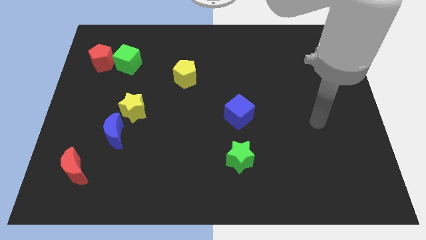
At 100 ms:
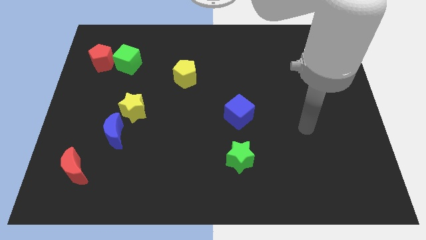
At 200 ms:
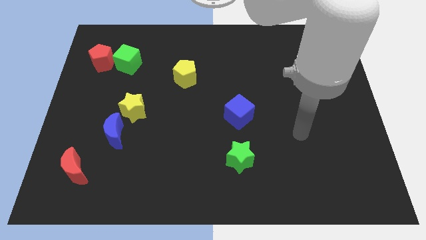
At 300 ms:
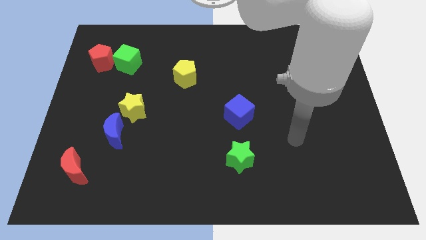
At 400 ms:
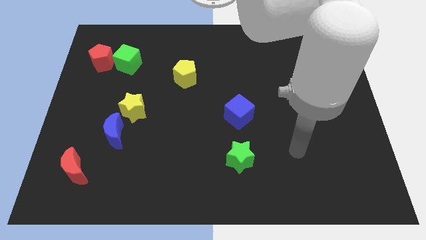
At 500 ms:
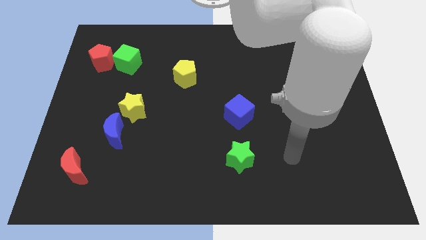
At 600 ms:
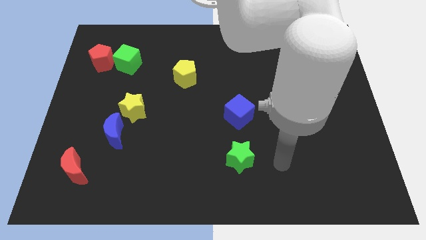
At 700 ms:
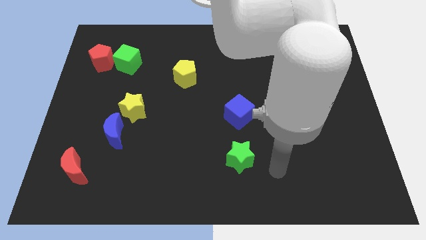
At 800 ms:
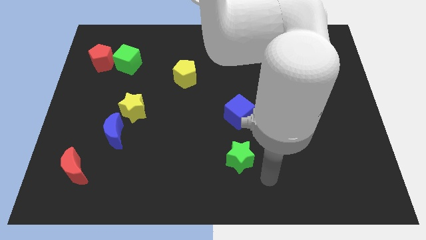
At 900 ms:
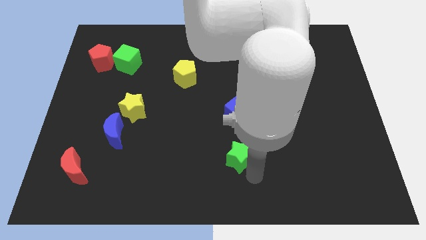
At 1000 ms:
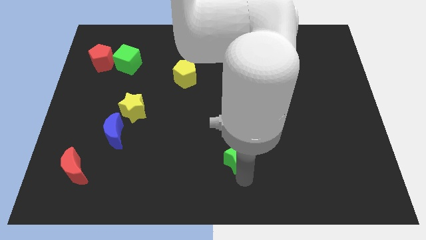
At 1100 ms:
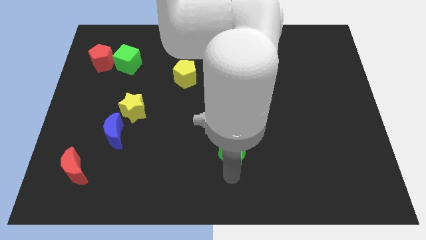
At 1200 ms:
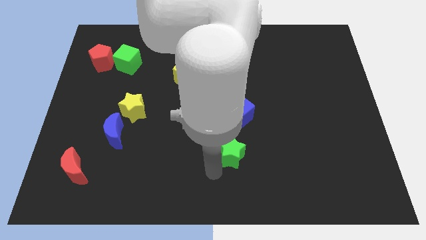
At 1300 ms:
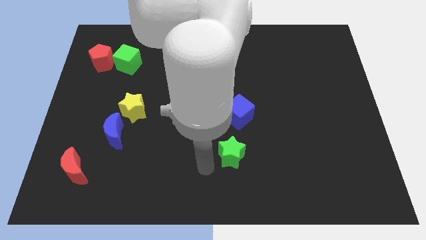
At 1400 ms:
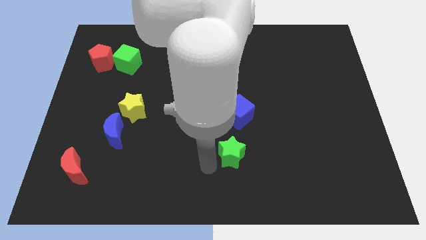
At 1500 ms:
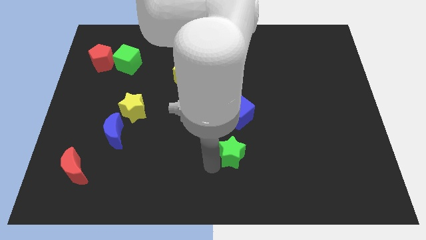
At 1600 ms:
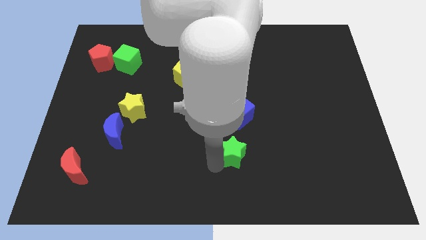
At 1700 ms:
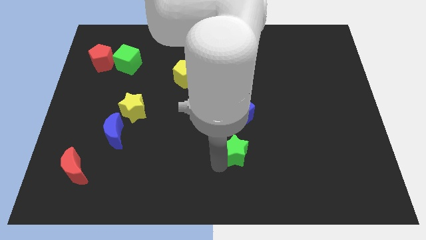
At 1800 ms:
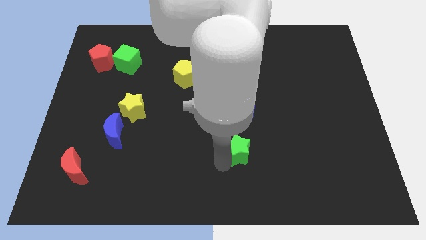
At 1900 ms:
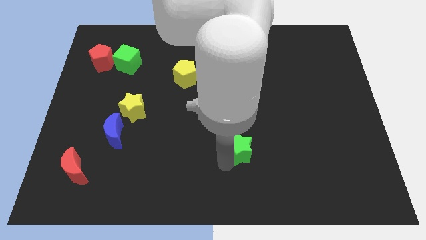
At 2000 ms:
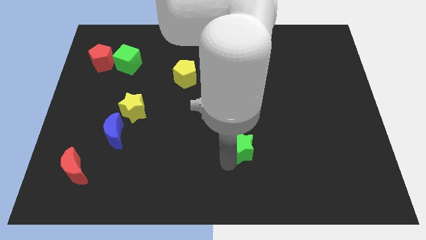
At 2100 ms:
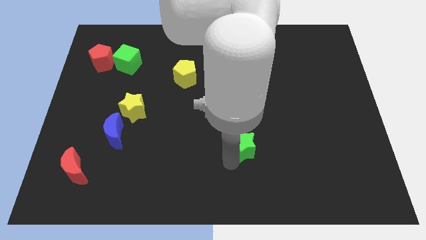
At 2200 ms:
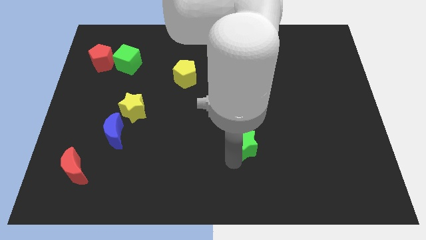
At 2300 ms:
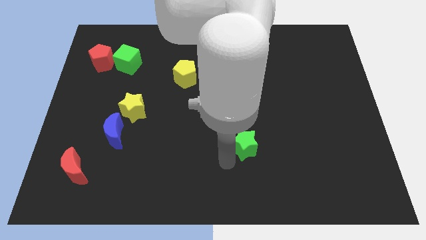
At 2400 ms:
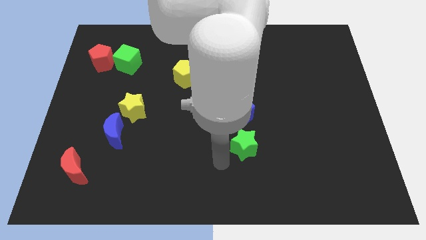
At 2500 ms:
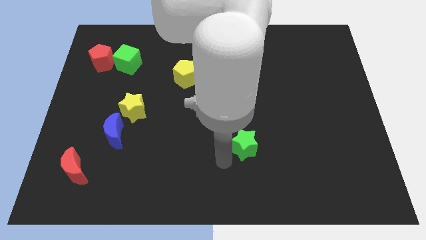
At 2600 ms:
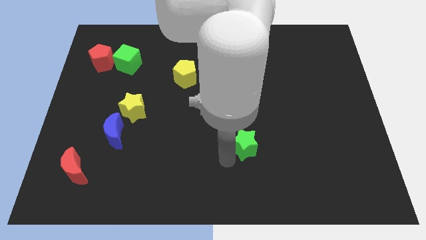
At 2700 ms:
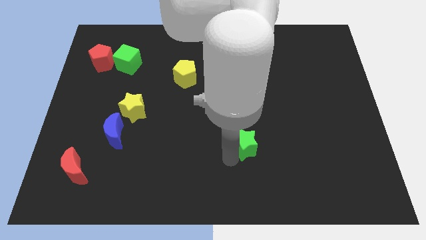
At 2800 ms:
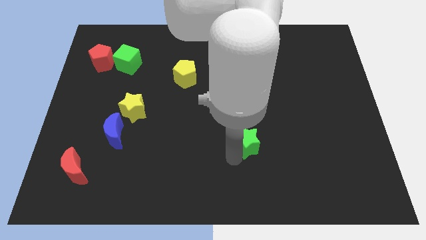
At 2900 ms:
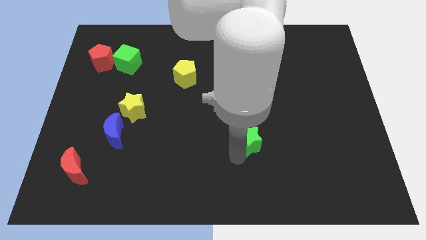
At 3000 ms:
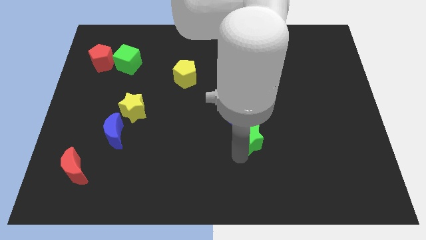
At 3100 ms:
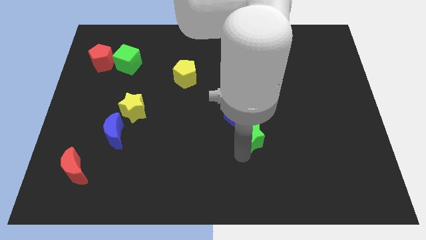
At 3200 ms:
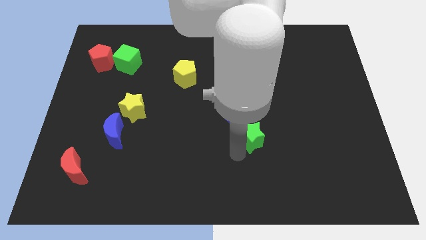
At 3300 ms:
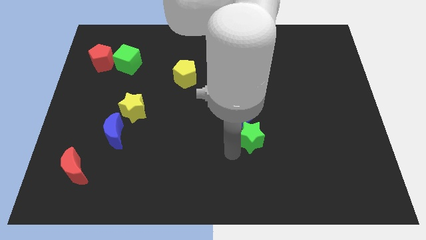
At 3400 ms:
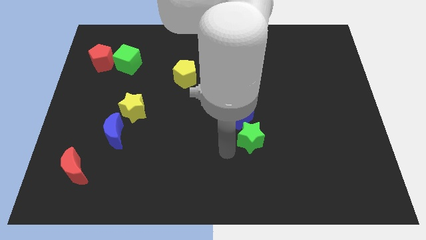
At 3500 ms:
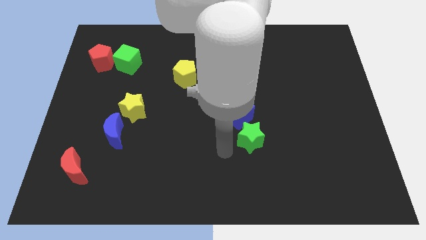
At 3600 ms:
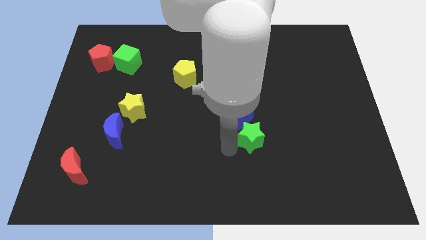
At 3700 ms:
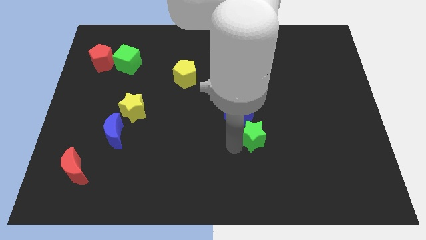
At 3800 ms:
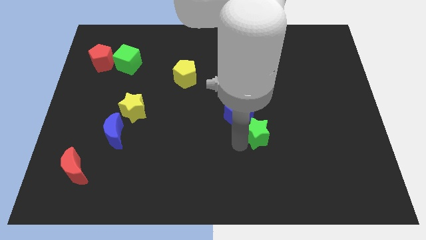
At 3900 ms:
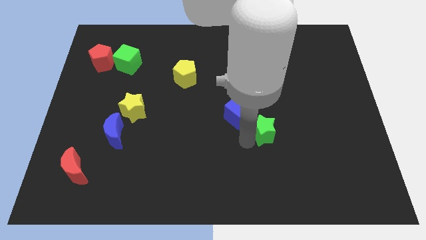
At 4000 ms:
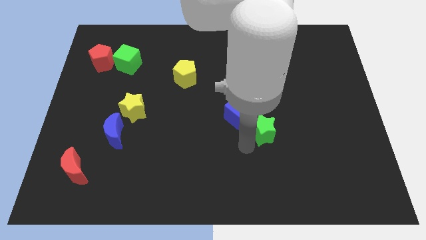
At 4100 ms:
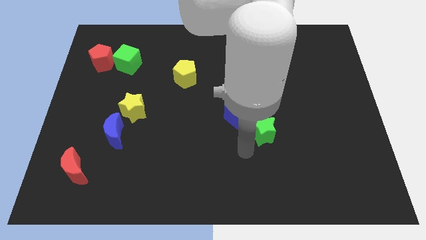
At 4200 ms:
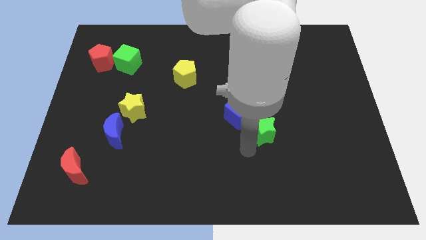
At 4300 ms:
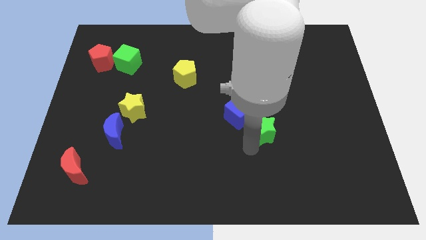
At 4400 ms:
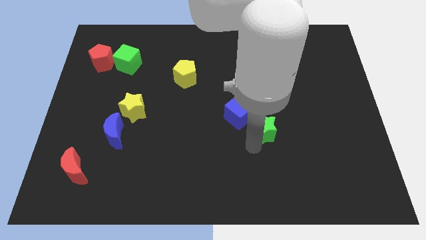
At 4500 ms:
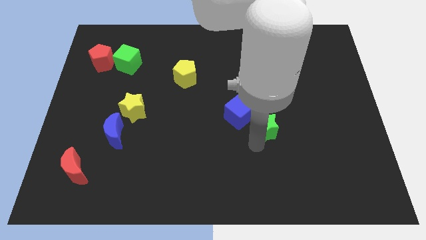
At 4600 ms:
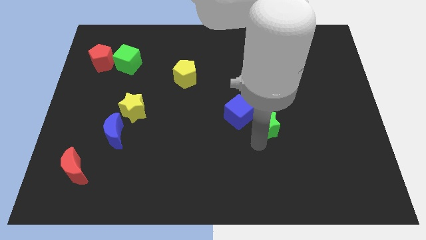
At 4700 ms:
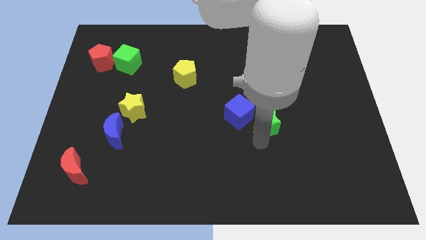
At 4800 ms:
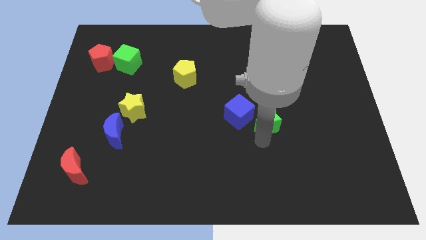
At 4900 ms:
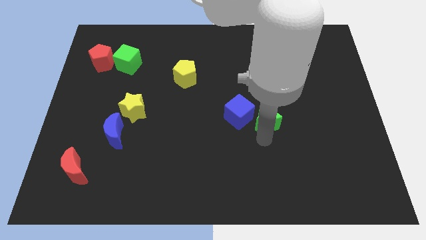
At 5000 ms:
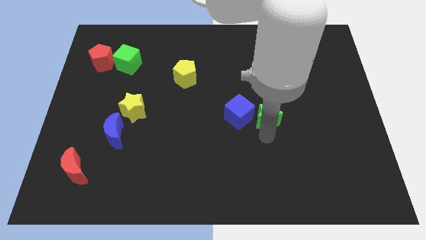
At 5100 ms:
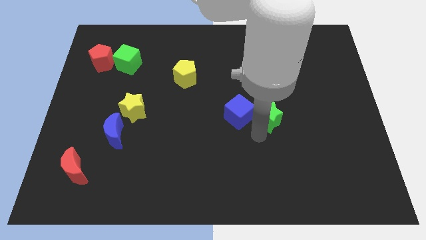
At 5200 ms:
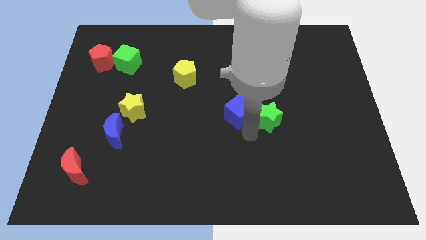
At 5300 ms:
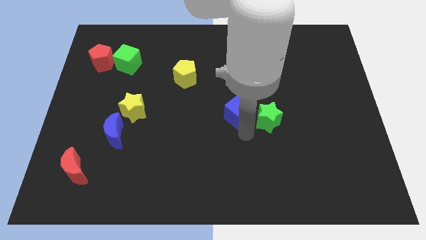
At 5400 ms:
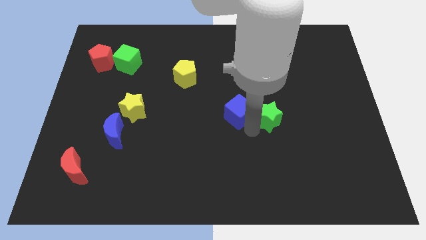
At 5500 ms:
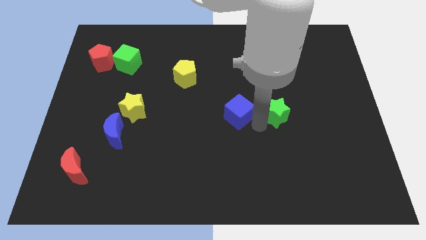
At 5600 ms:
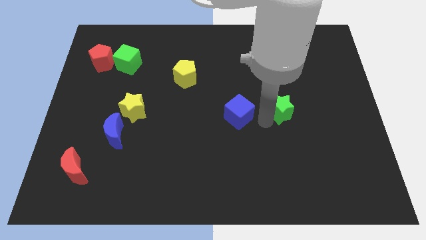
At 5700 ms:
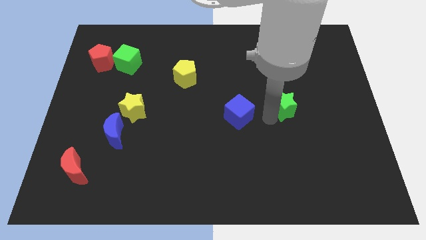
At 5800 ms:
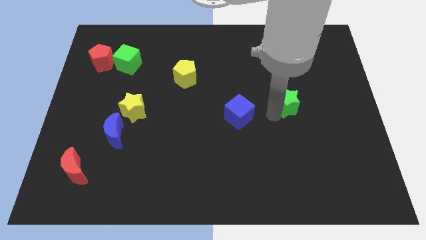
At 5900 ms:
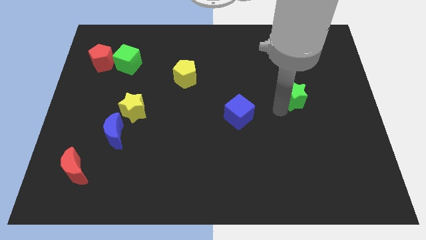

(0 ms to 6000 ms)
move the green star upwards and to the right

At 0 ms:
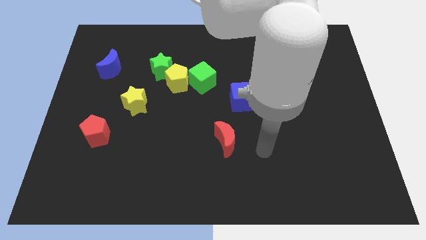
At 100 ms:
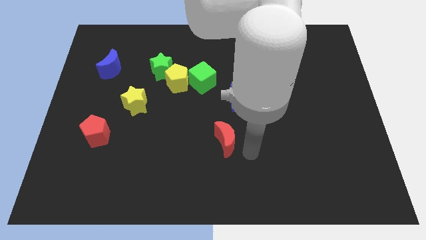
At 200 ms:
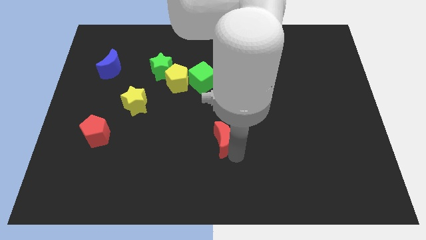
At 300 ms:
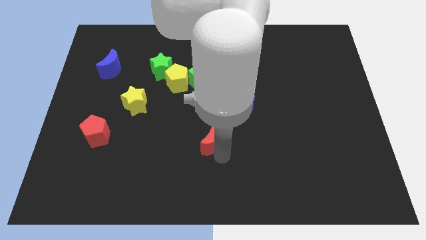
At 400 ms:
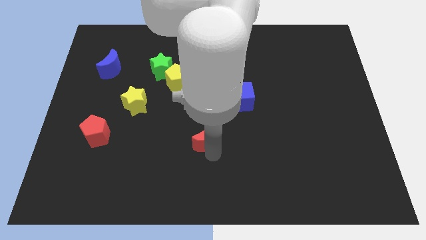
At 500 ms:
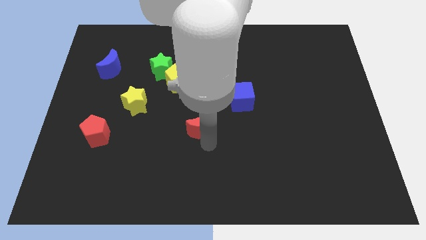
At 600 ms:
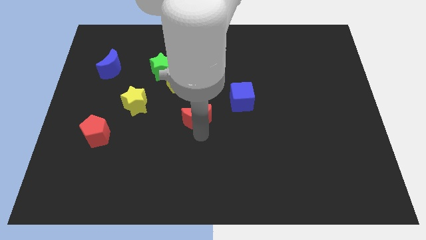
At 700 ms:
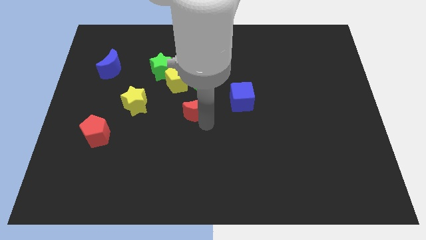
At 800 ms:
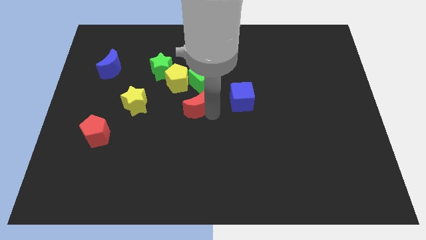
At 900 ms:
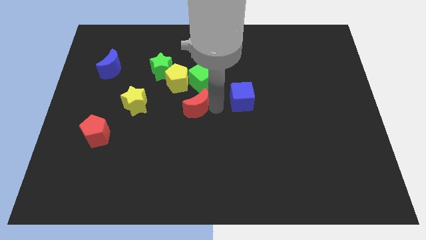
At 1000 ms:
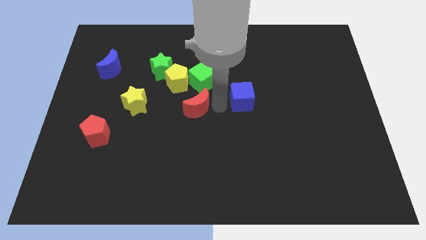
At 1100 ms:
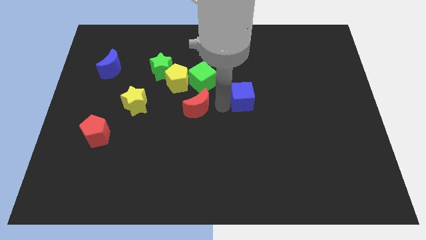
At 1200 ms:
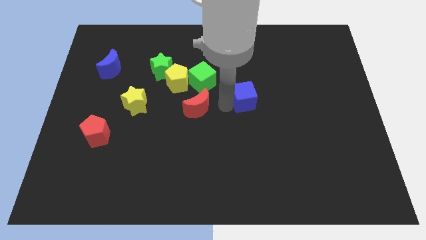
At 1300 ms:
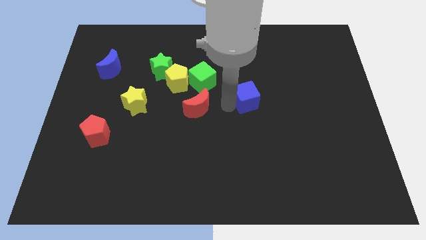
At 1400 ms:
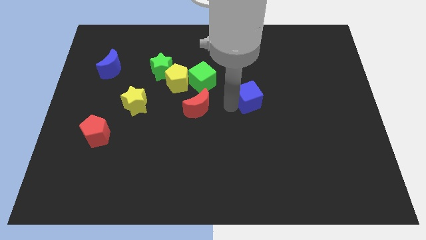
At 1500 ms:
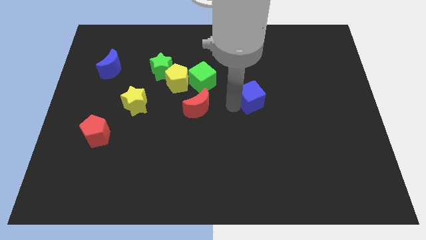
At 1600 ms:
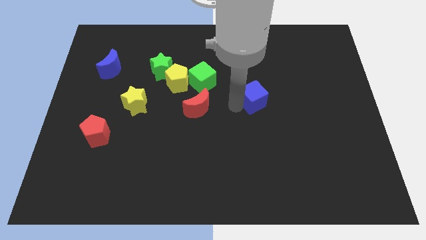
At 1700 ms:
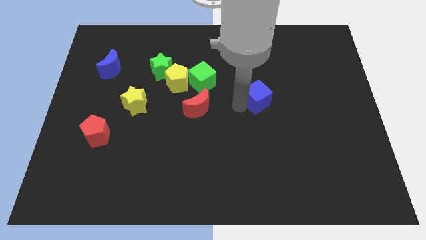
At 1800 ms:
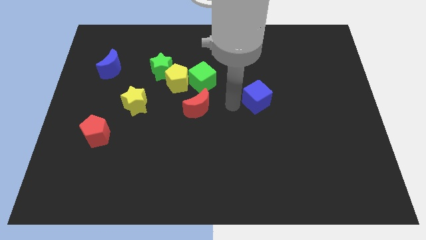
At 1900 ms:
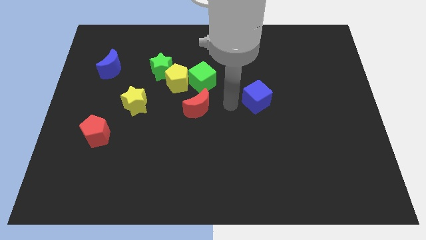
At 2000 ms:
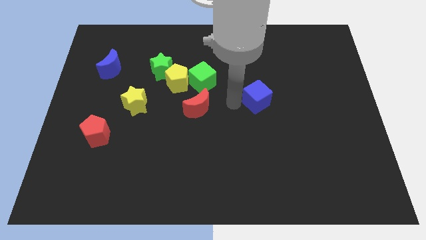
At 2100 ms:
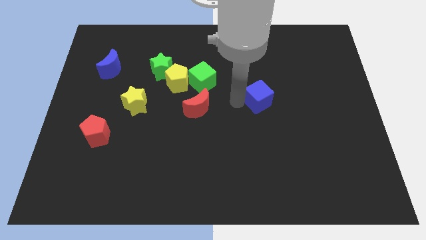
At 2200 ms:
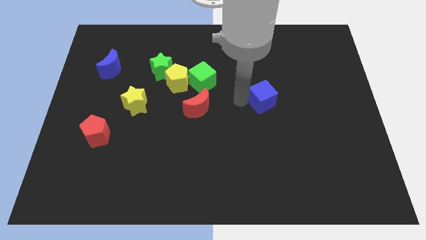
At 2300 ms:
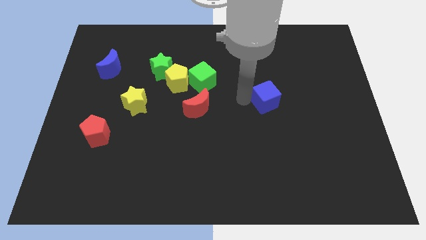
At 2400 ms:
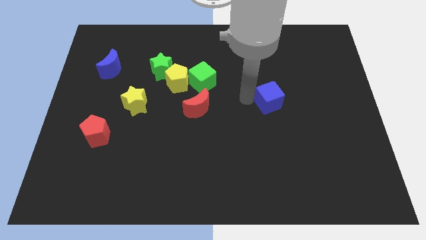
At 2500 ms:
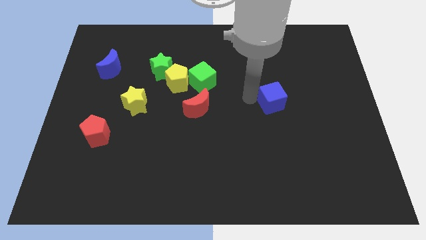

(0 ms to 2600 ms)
move the blue cube to the right a little

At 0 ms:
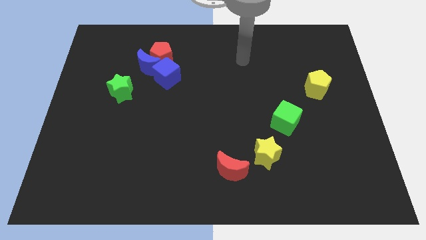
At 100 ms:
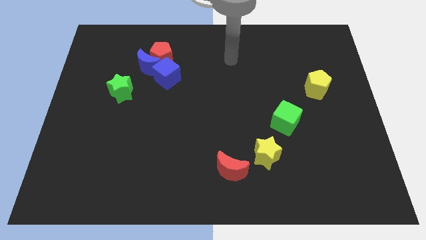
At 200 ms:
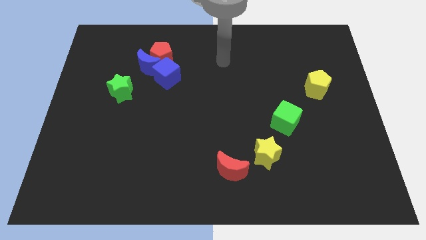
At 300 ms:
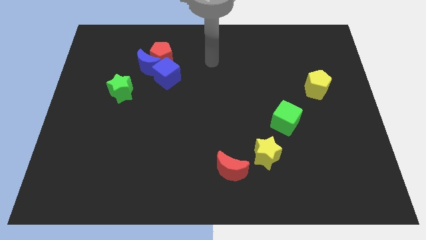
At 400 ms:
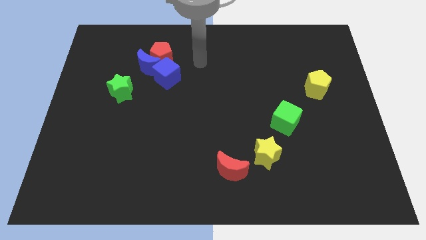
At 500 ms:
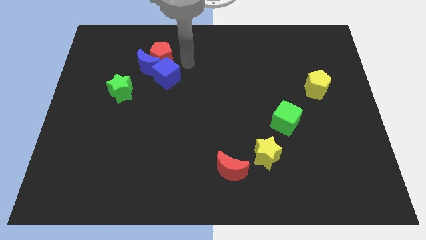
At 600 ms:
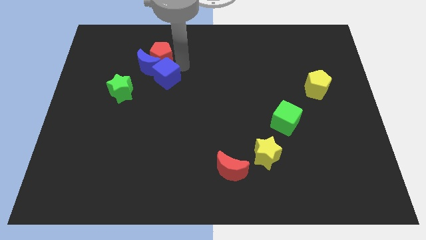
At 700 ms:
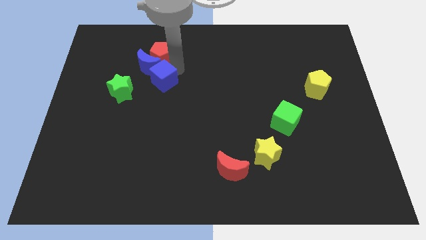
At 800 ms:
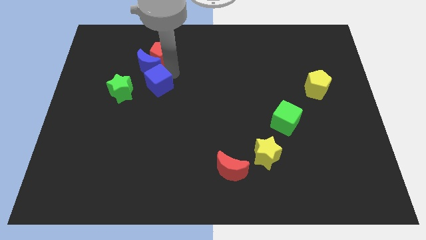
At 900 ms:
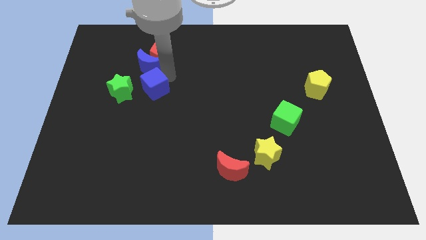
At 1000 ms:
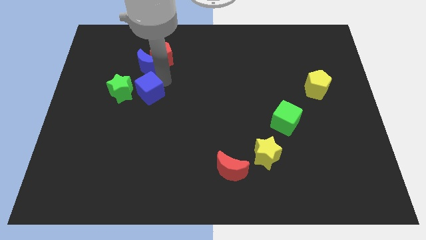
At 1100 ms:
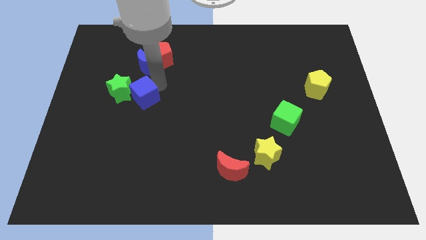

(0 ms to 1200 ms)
push the blue cube a bit downwards and left diagonally
